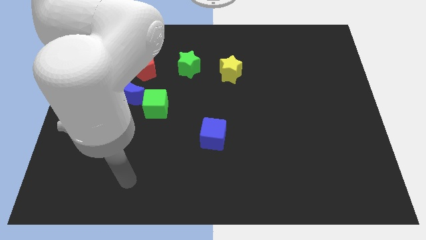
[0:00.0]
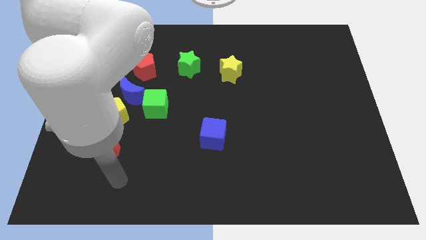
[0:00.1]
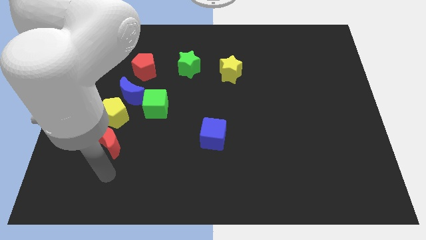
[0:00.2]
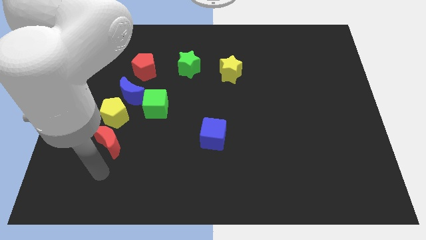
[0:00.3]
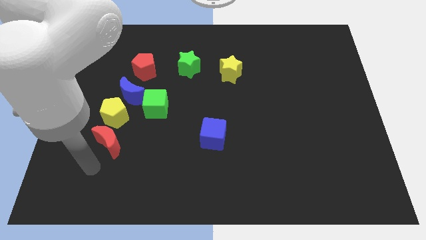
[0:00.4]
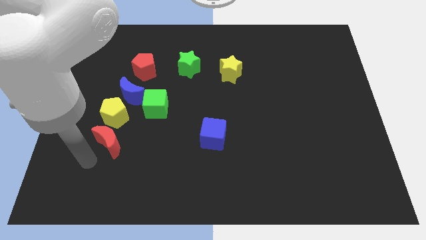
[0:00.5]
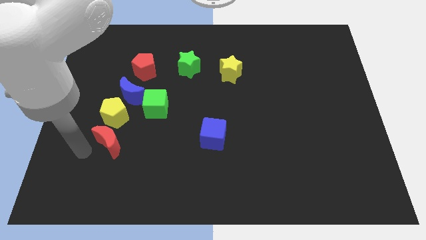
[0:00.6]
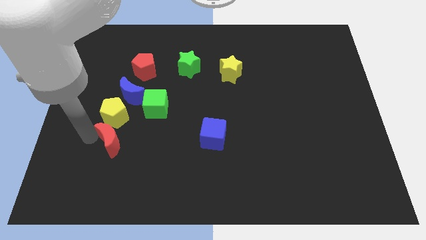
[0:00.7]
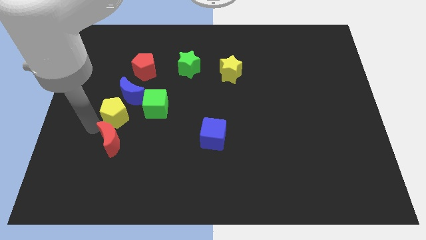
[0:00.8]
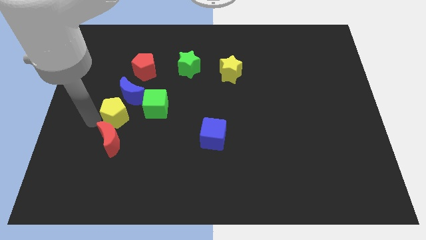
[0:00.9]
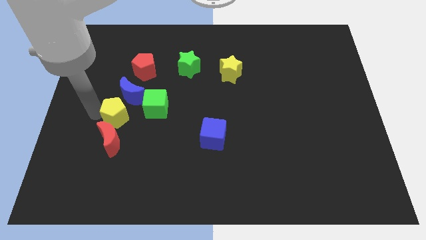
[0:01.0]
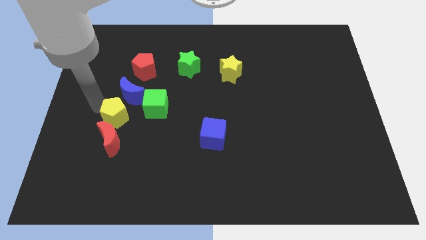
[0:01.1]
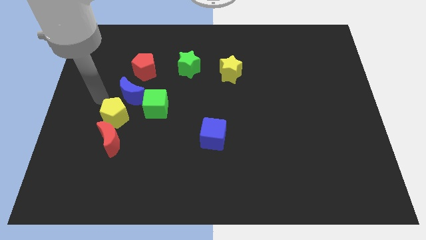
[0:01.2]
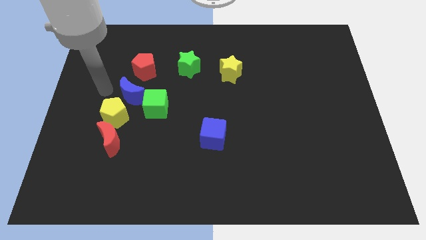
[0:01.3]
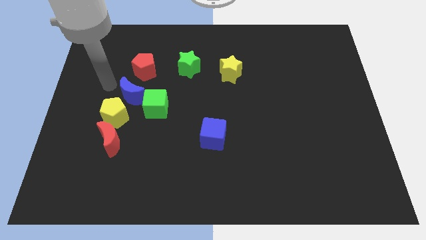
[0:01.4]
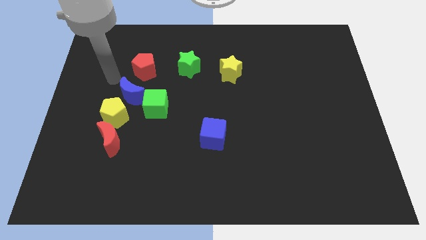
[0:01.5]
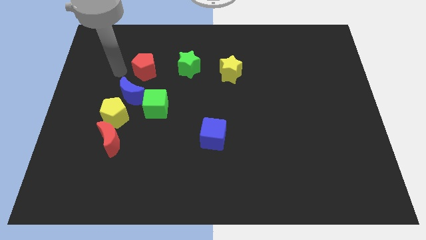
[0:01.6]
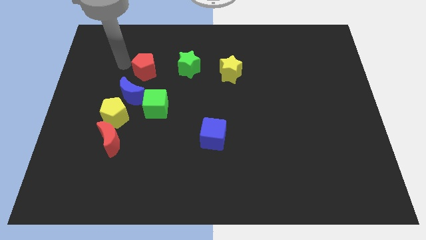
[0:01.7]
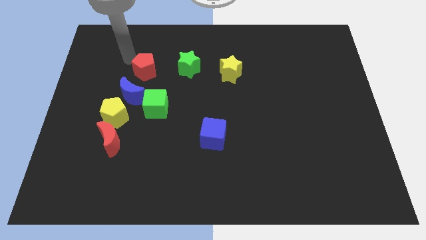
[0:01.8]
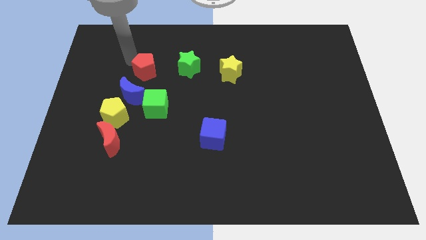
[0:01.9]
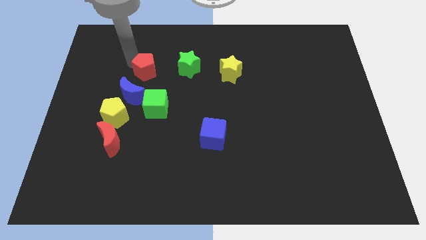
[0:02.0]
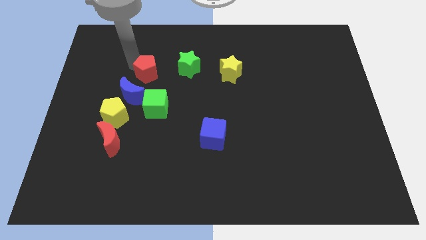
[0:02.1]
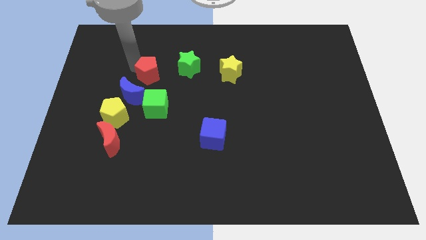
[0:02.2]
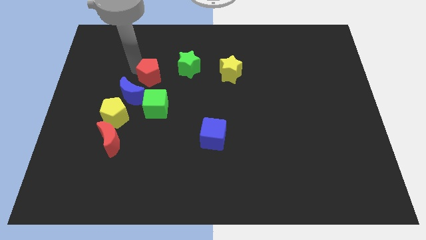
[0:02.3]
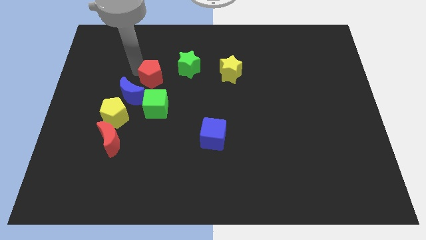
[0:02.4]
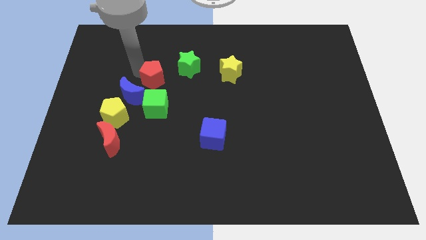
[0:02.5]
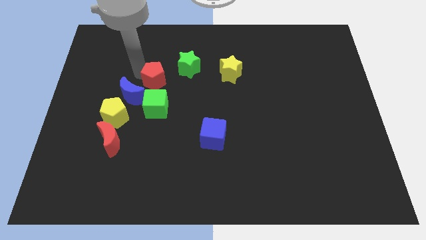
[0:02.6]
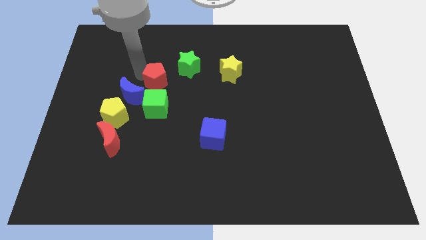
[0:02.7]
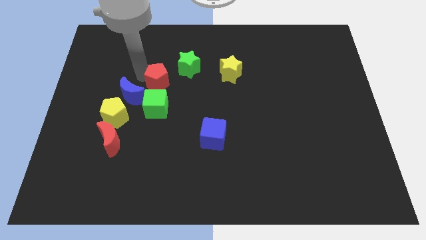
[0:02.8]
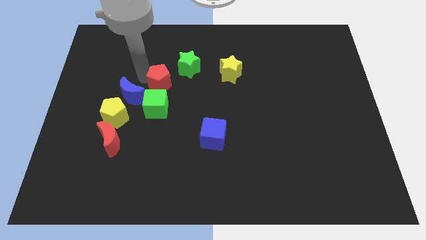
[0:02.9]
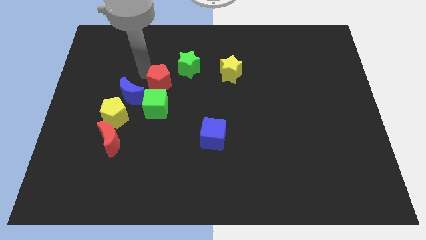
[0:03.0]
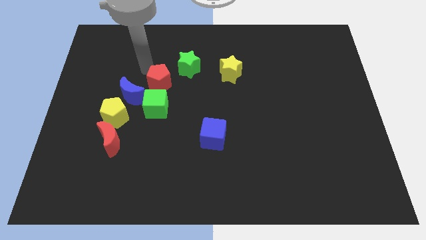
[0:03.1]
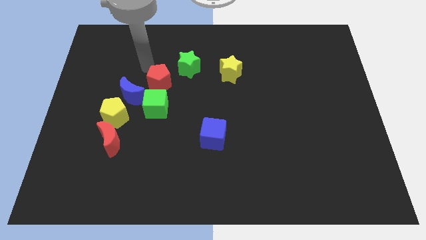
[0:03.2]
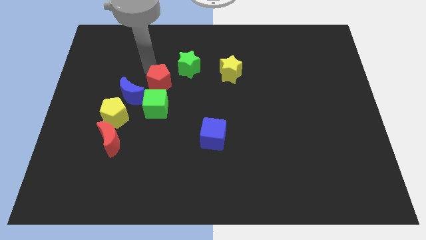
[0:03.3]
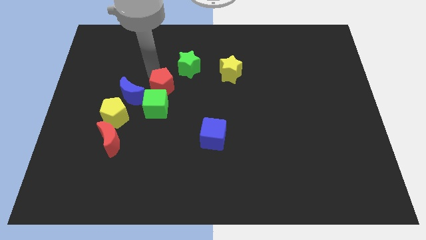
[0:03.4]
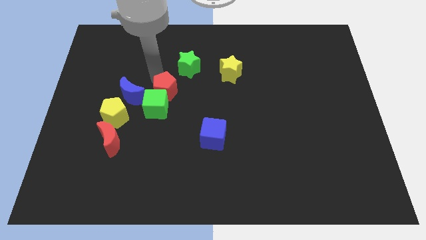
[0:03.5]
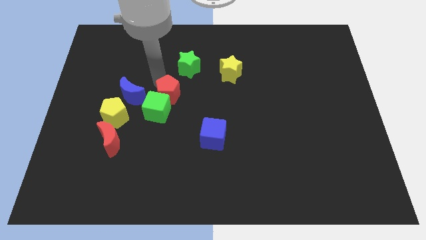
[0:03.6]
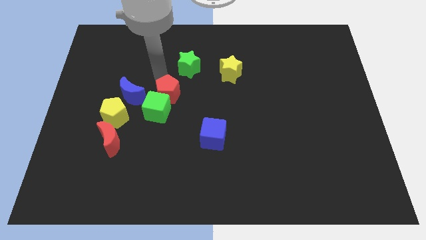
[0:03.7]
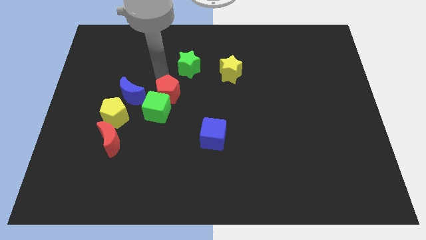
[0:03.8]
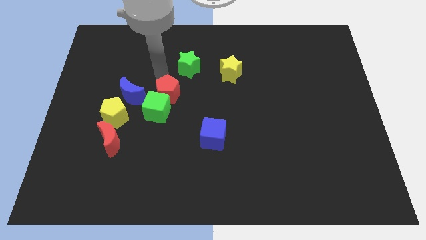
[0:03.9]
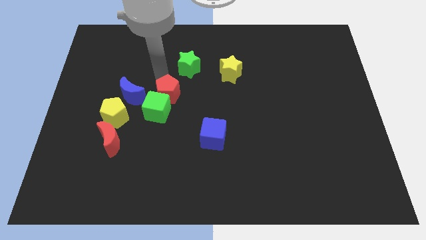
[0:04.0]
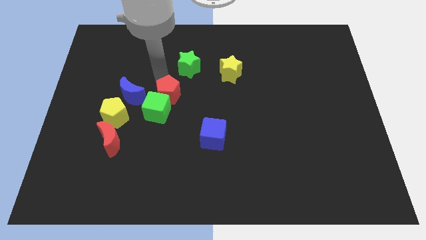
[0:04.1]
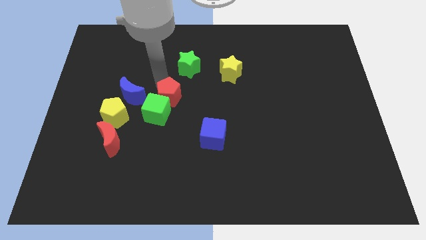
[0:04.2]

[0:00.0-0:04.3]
move the red pentagon somewhat downwards

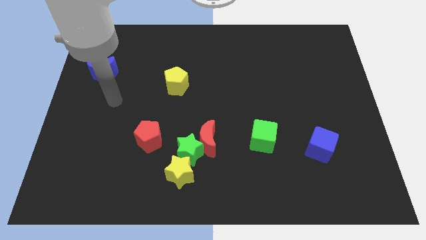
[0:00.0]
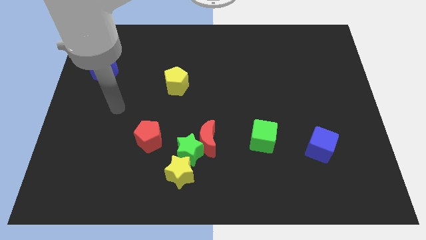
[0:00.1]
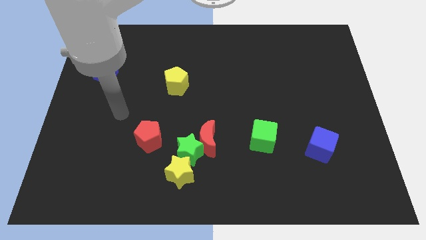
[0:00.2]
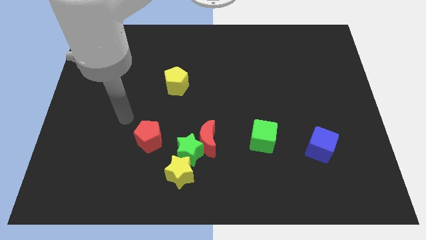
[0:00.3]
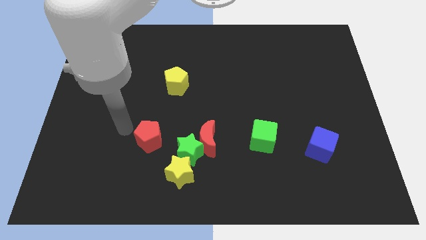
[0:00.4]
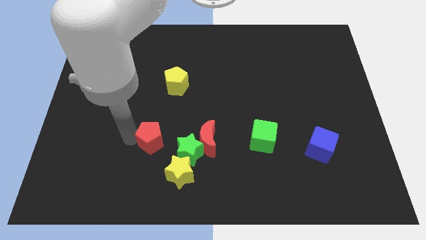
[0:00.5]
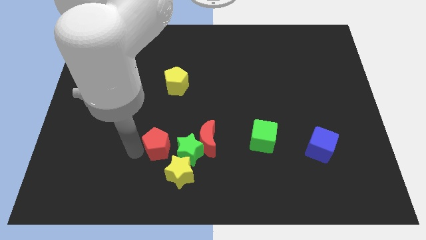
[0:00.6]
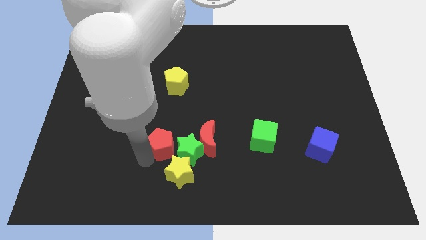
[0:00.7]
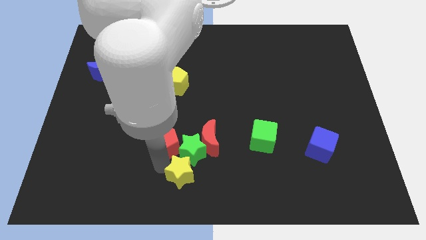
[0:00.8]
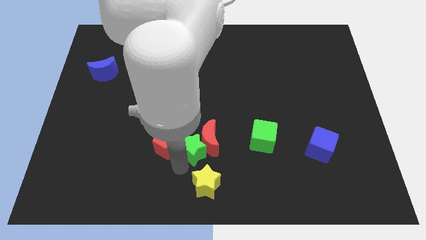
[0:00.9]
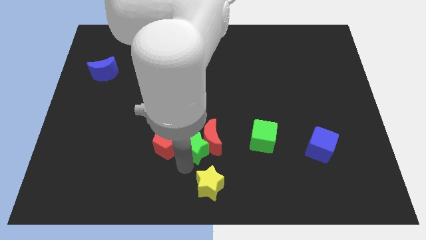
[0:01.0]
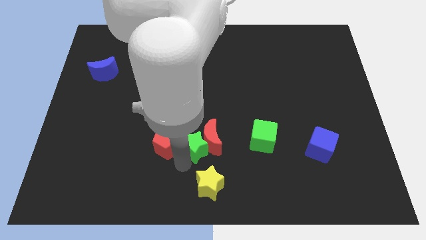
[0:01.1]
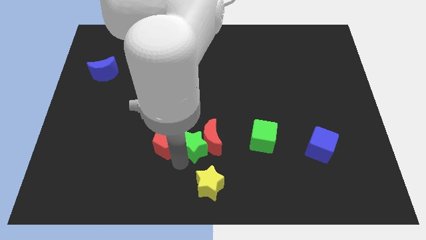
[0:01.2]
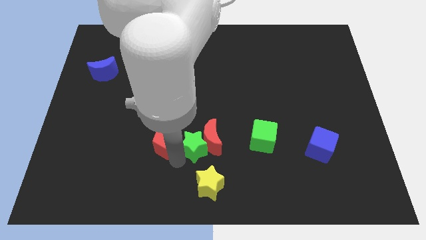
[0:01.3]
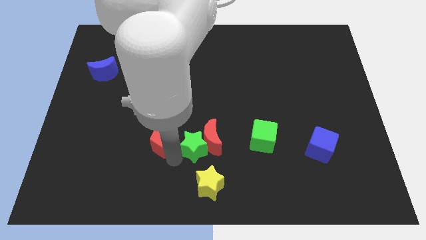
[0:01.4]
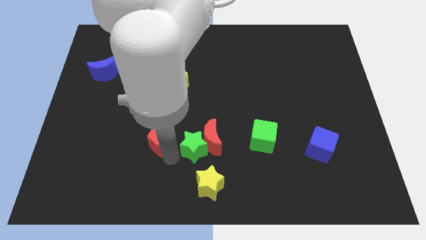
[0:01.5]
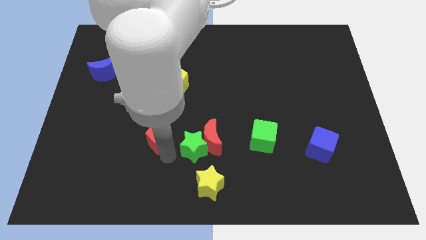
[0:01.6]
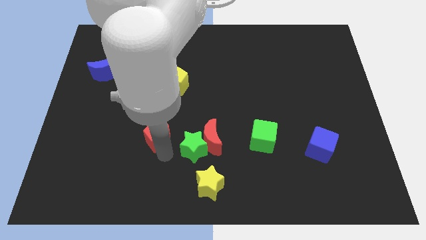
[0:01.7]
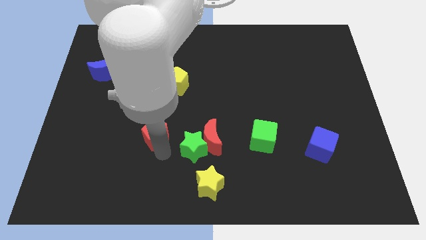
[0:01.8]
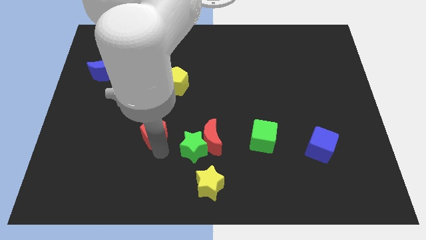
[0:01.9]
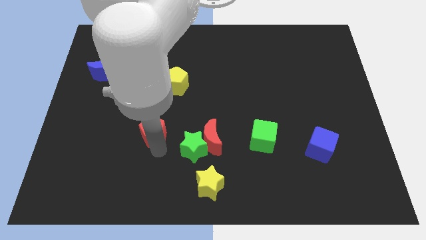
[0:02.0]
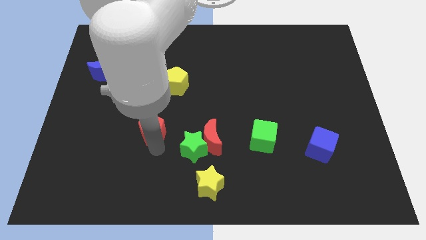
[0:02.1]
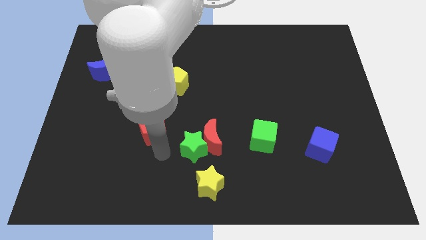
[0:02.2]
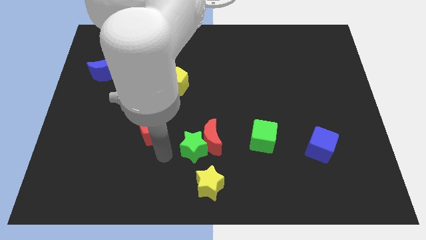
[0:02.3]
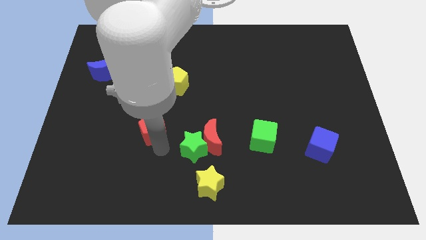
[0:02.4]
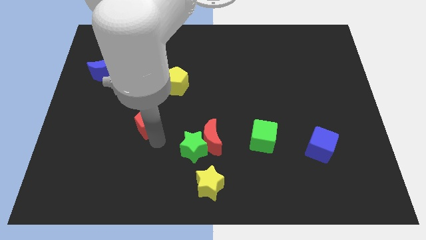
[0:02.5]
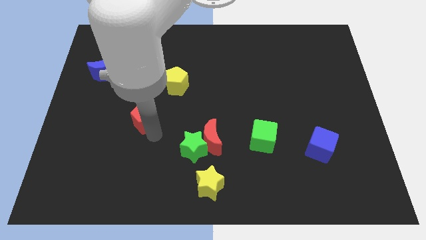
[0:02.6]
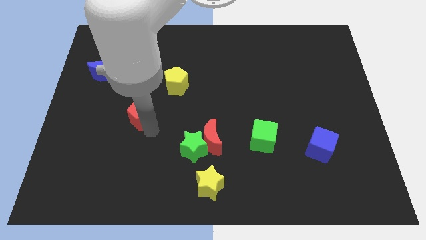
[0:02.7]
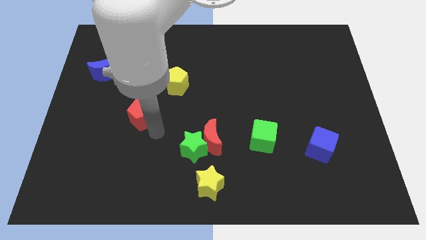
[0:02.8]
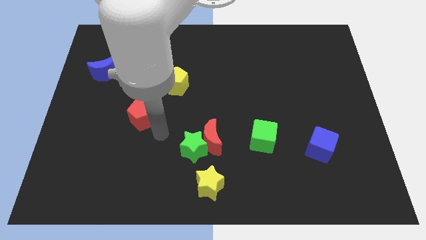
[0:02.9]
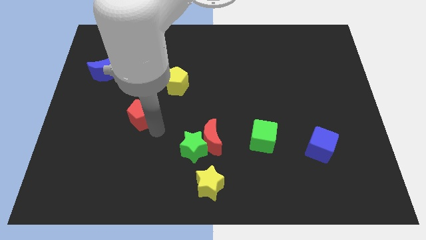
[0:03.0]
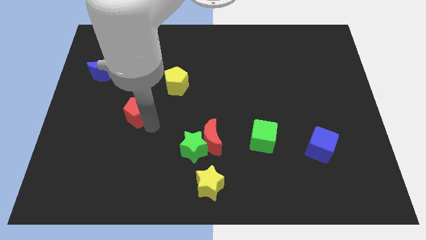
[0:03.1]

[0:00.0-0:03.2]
slide the red pentagon a bit diagonally up and left
